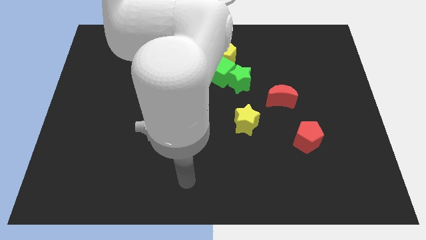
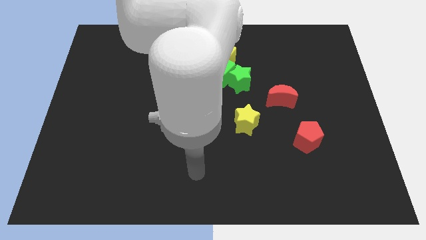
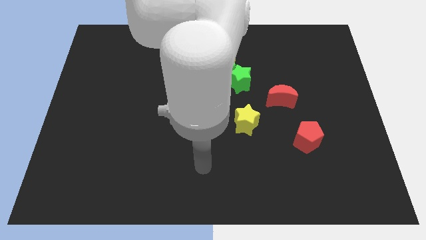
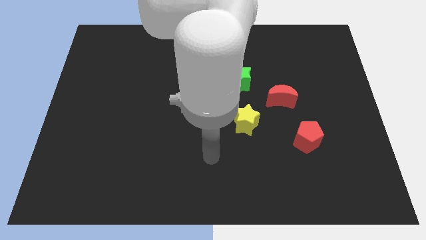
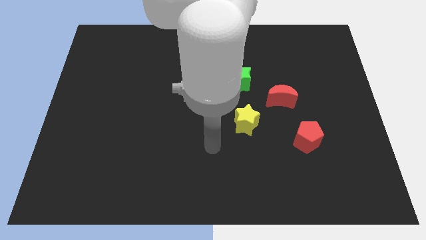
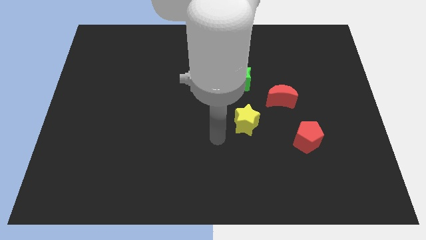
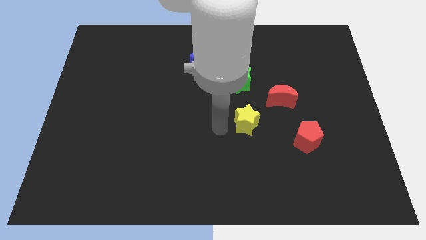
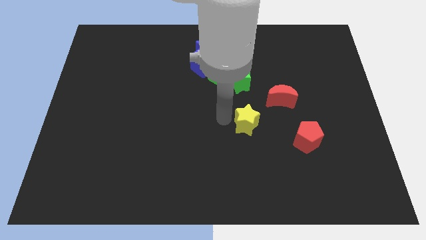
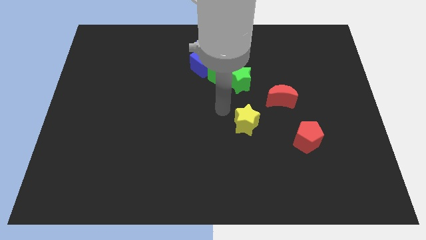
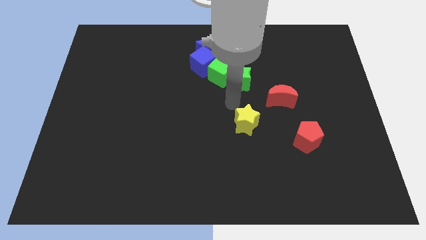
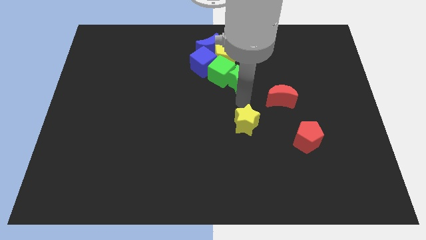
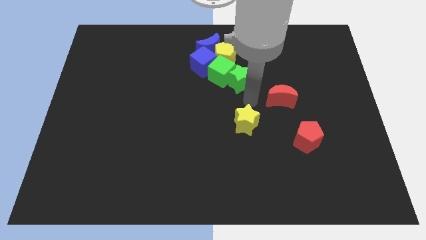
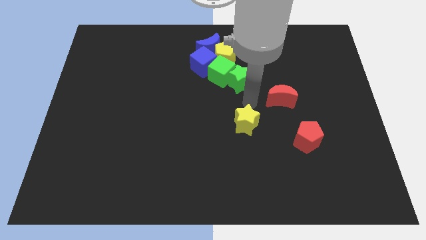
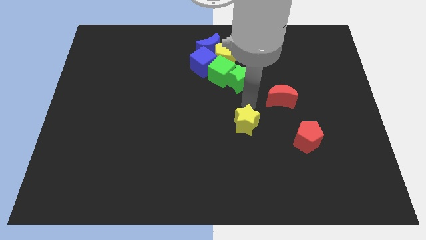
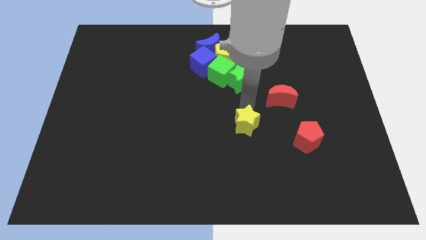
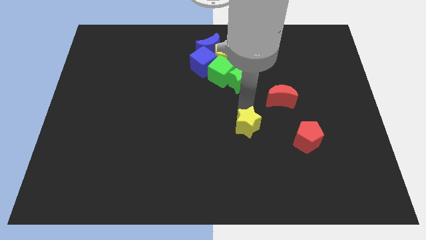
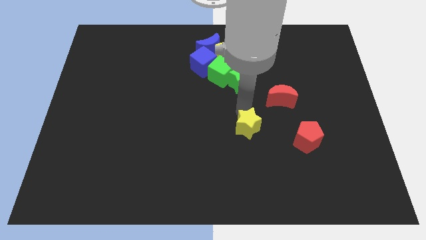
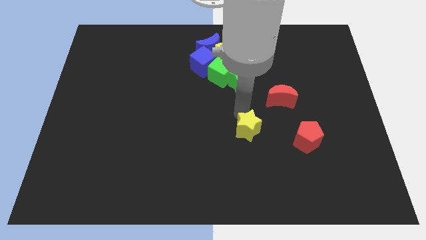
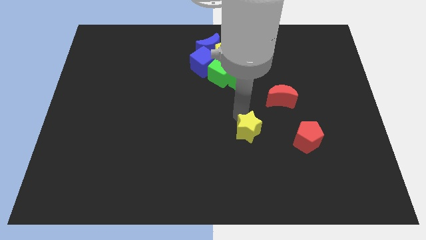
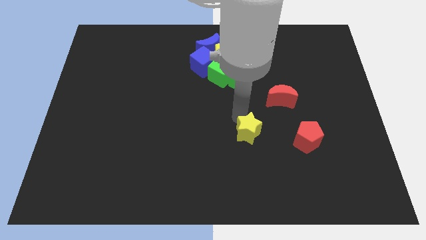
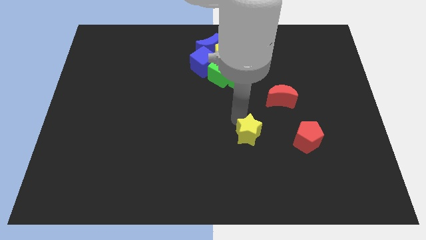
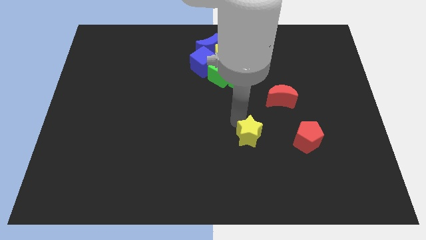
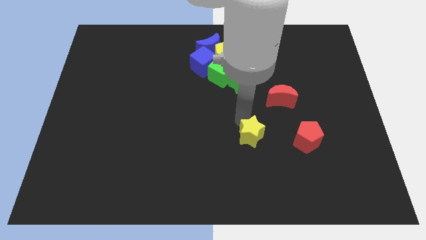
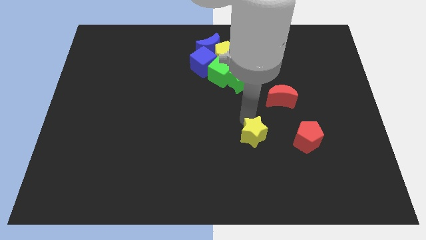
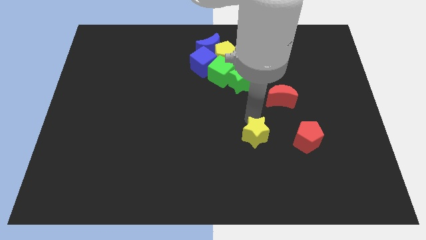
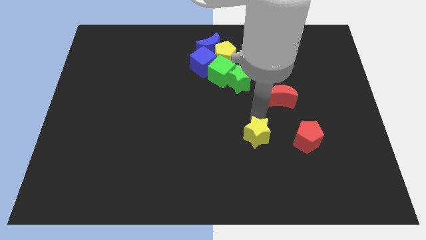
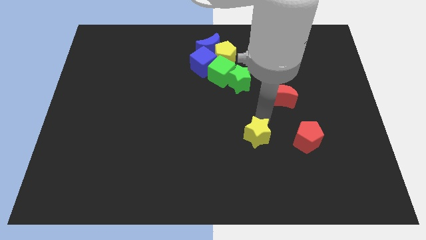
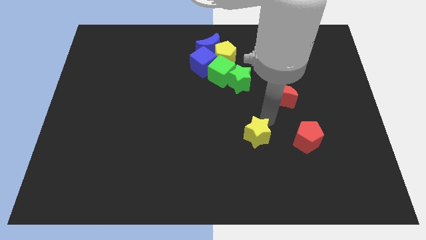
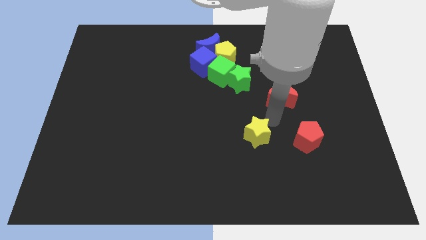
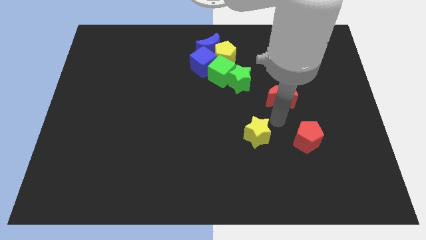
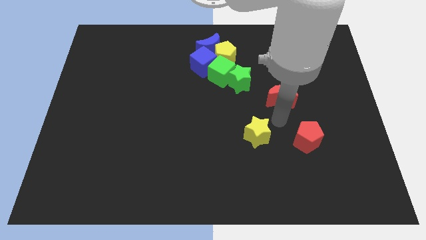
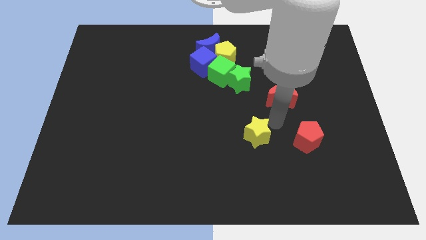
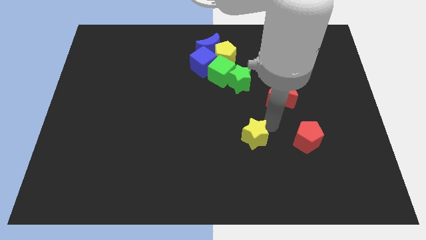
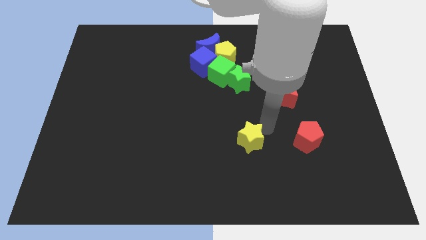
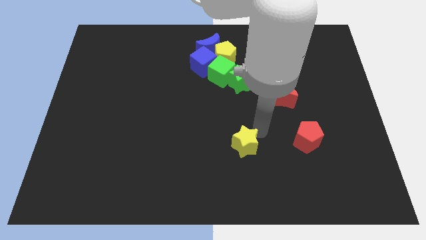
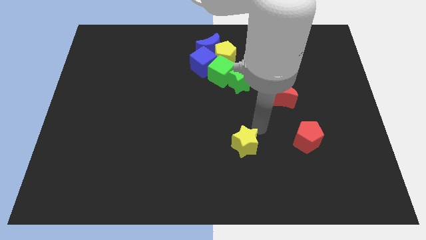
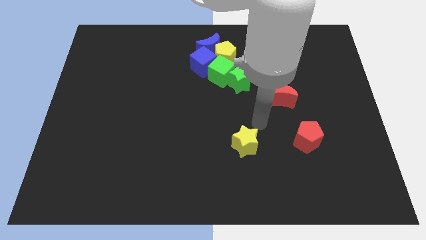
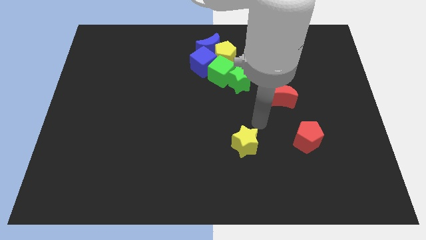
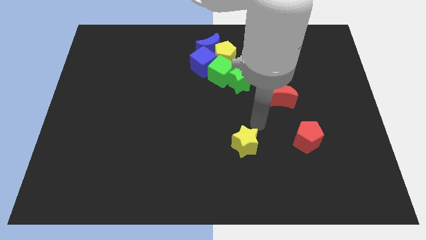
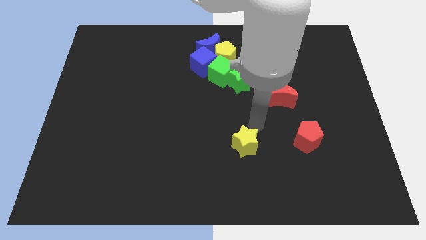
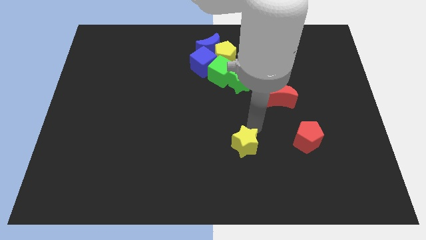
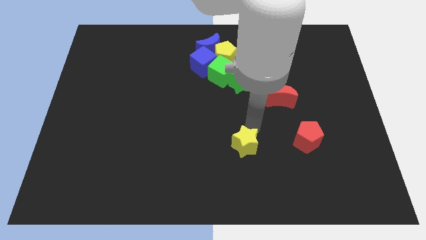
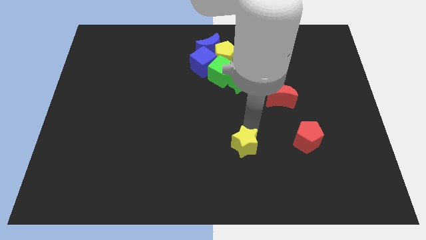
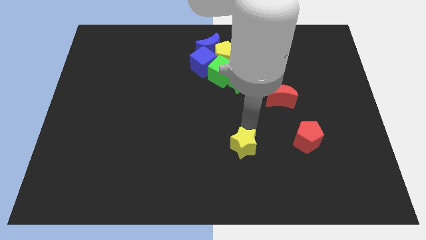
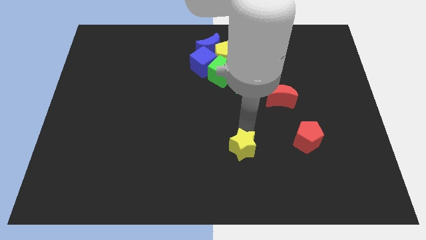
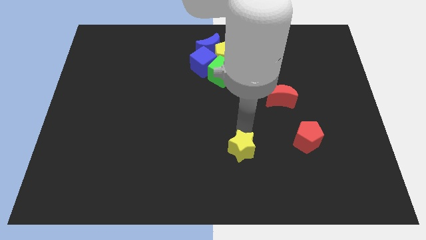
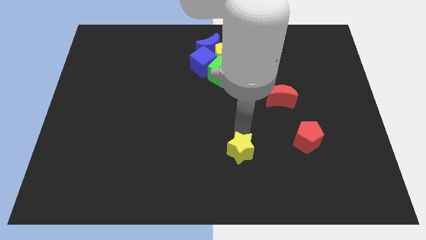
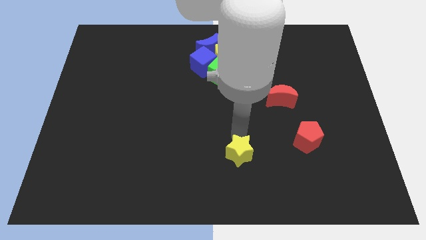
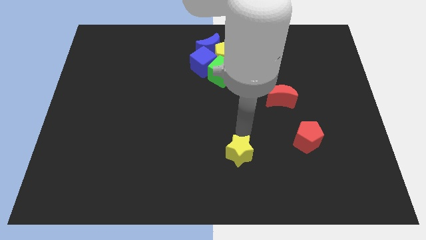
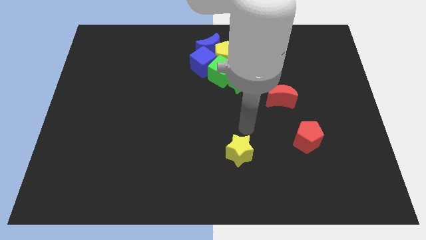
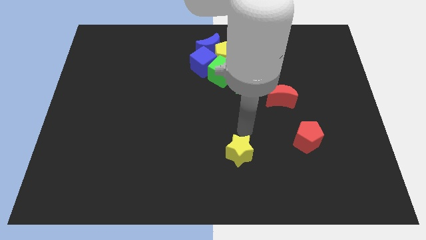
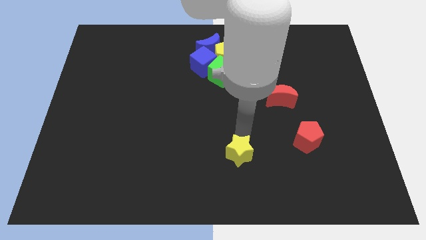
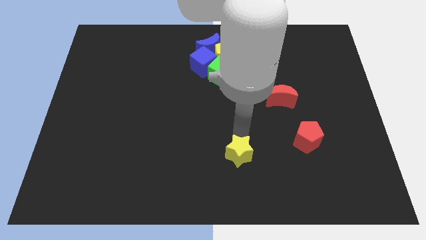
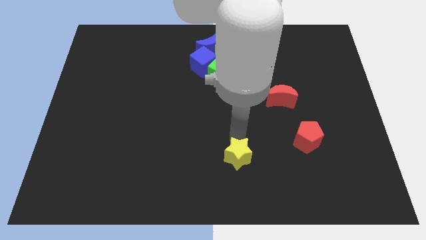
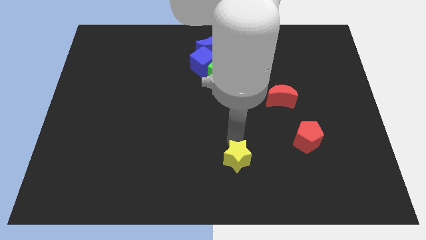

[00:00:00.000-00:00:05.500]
slide the yellow star to the bottom

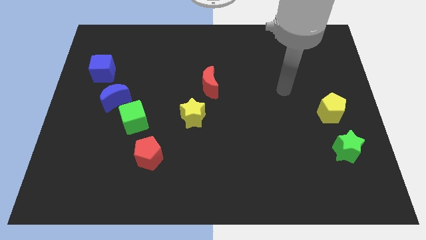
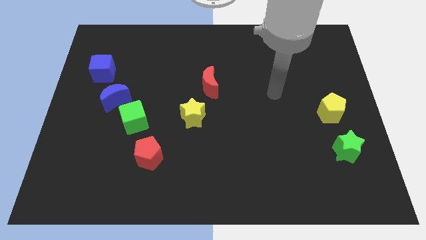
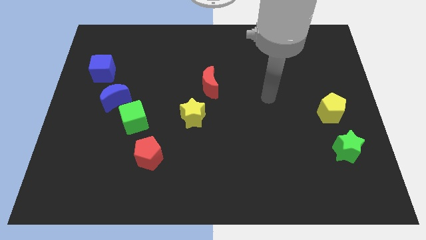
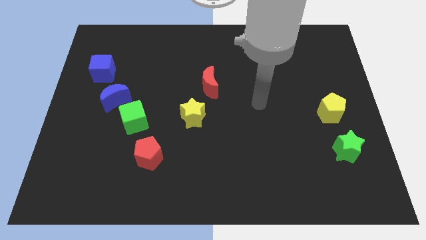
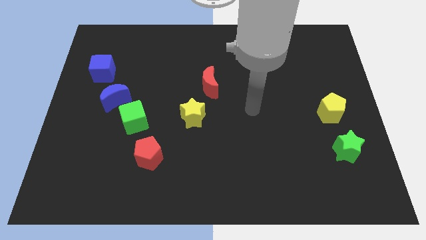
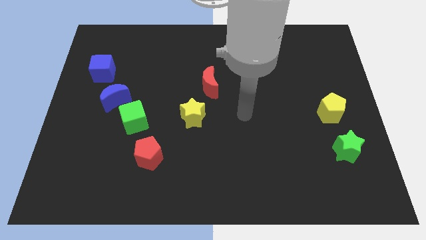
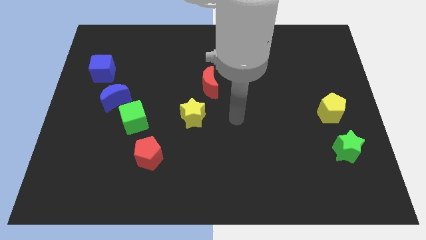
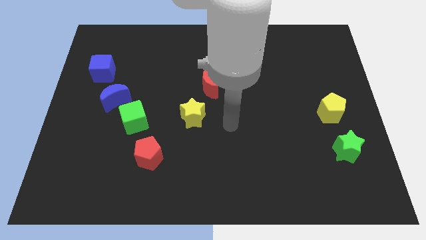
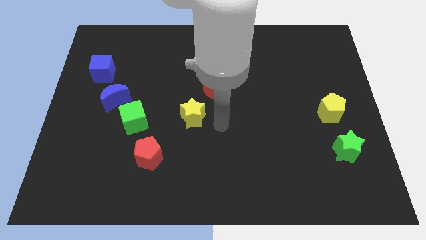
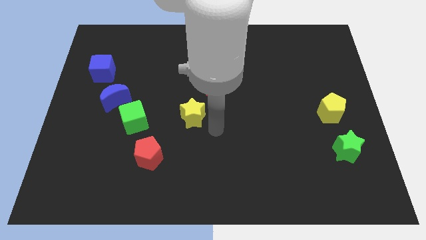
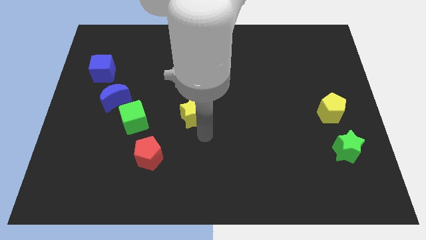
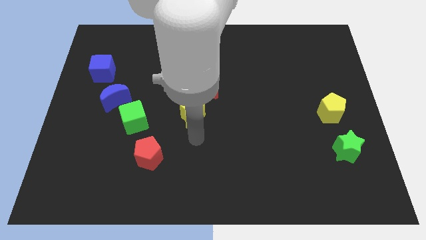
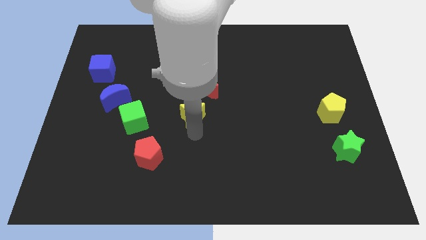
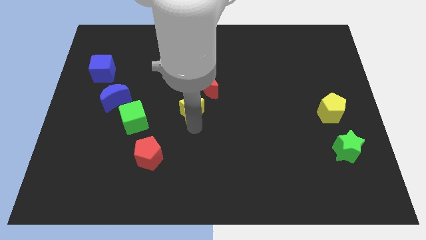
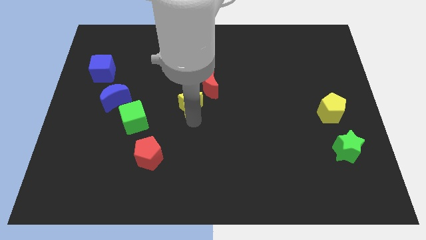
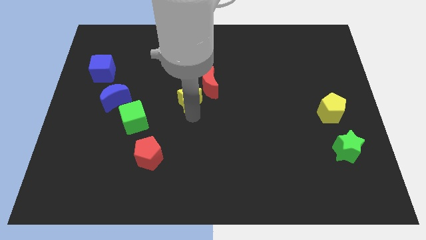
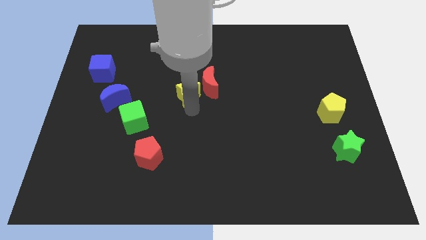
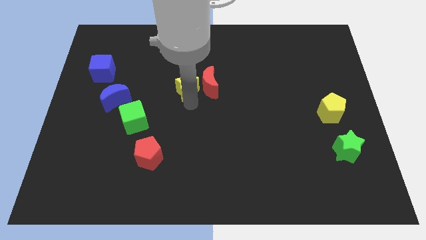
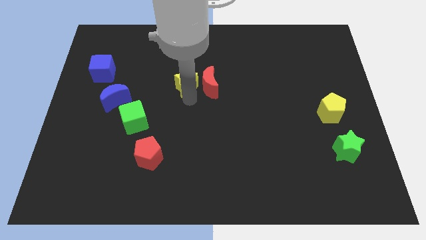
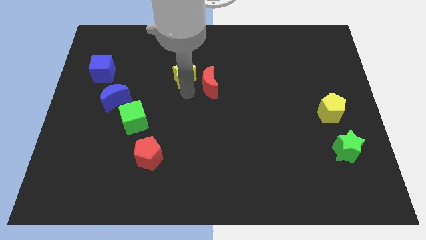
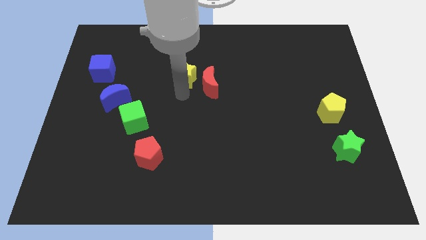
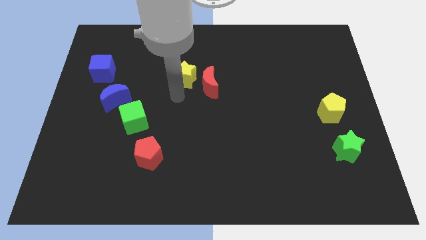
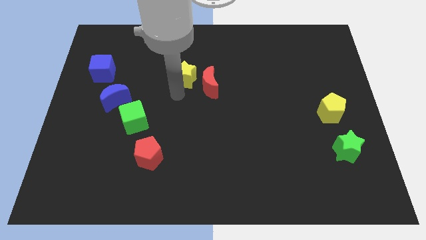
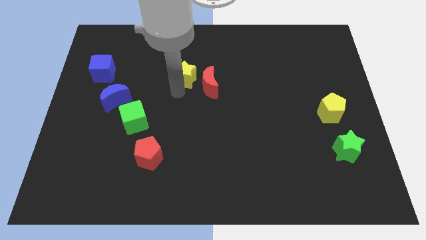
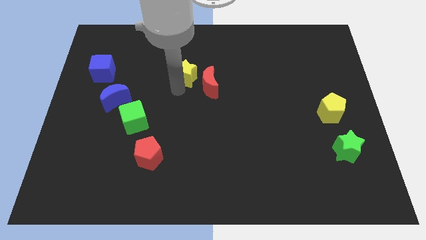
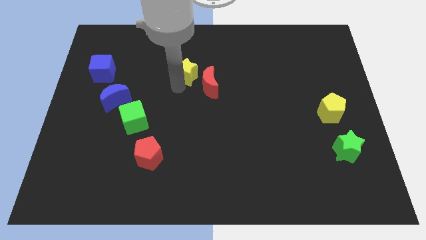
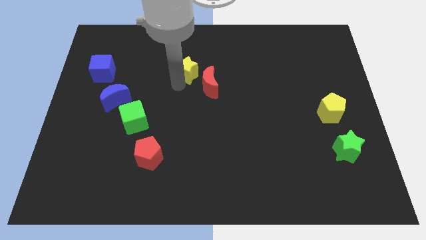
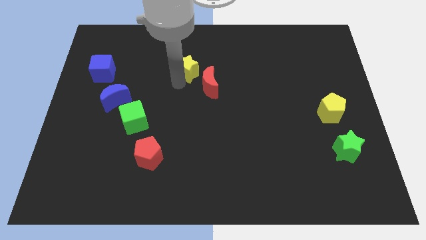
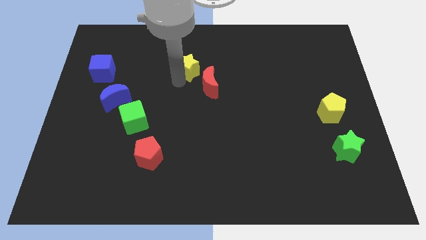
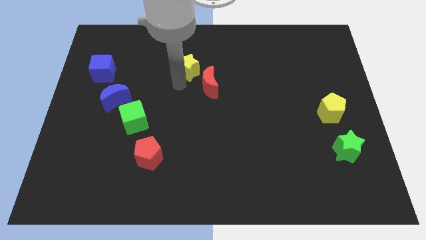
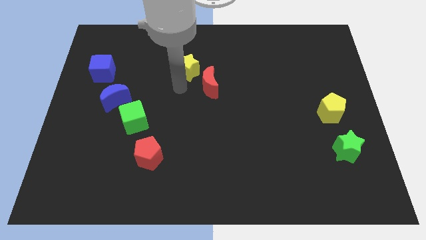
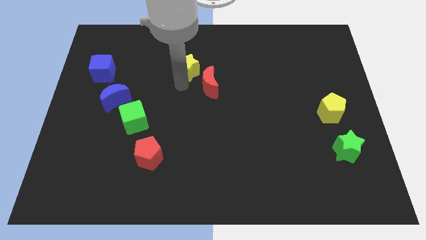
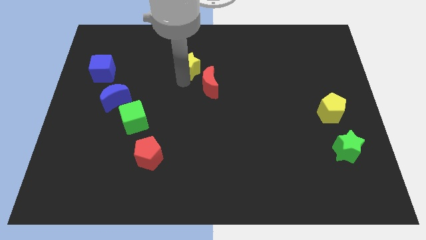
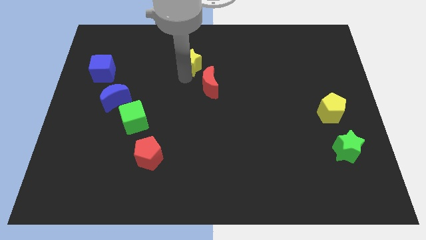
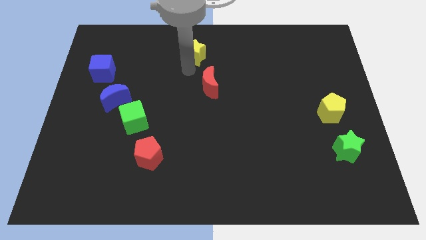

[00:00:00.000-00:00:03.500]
put the yellow star to the top
